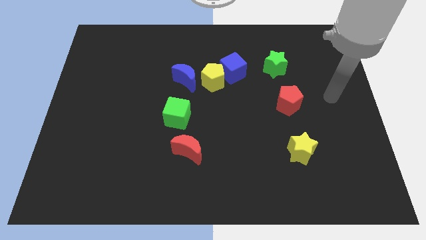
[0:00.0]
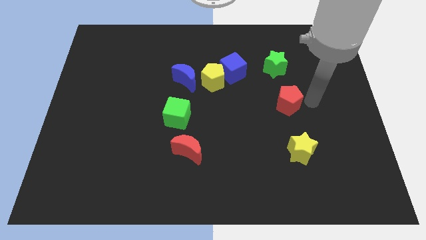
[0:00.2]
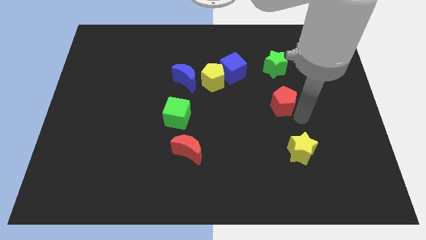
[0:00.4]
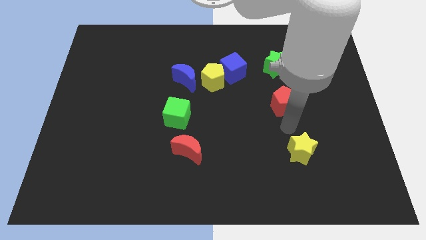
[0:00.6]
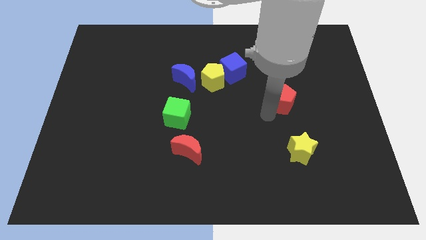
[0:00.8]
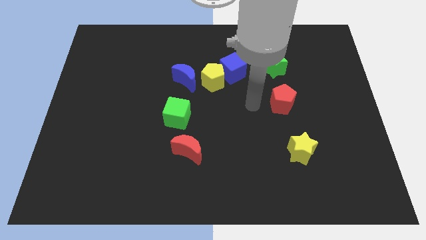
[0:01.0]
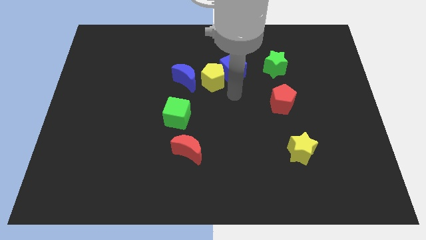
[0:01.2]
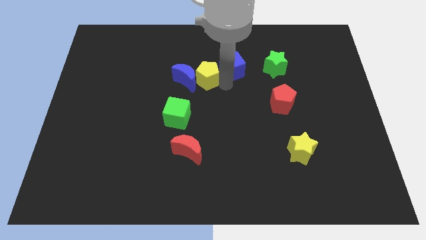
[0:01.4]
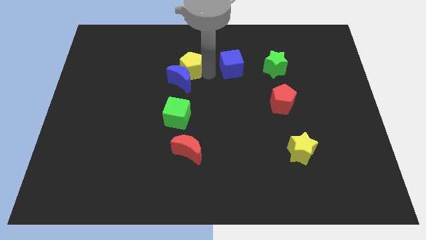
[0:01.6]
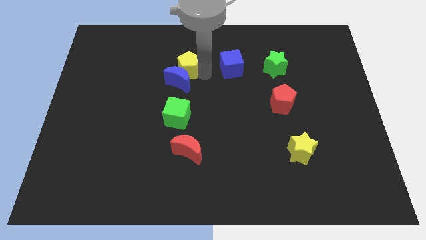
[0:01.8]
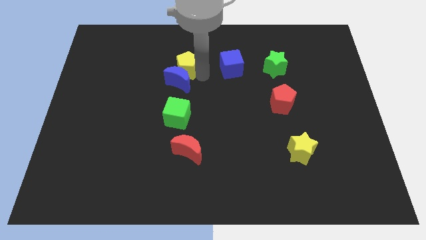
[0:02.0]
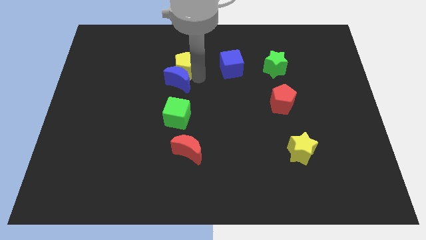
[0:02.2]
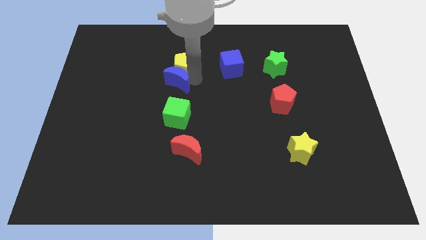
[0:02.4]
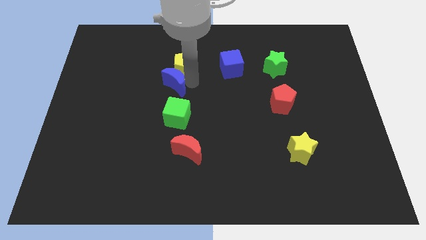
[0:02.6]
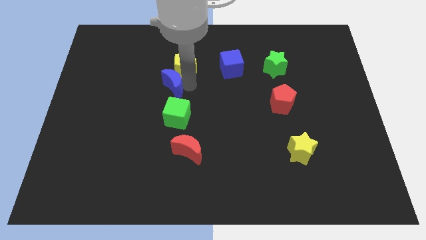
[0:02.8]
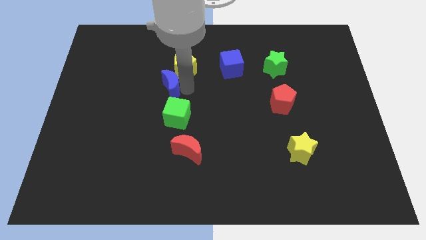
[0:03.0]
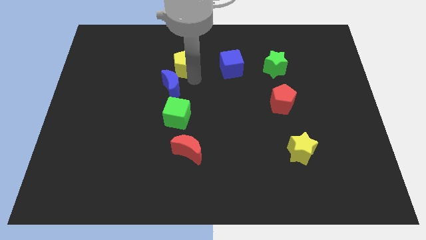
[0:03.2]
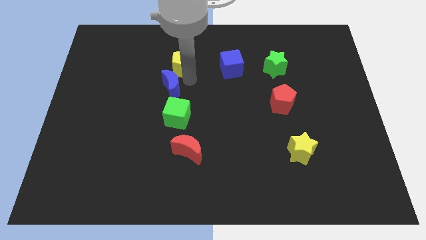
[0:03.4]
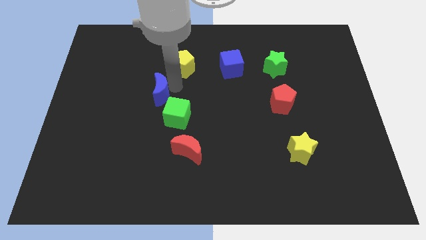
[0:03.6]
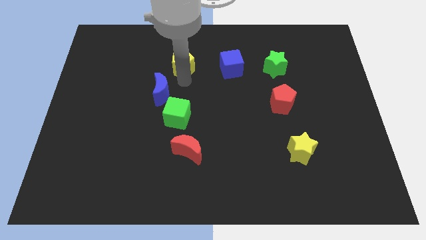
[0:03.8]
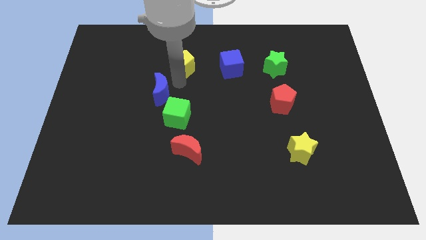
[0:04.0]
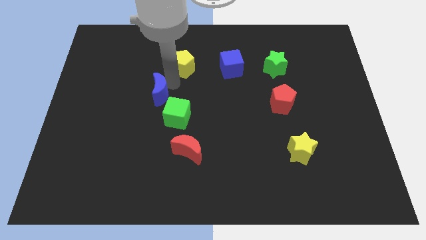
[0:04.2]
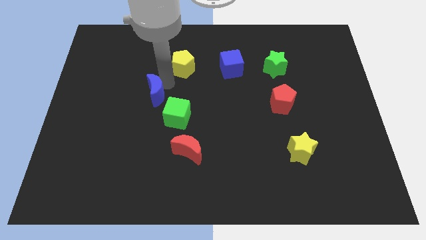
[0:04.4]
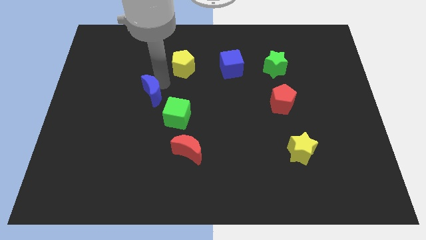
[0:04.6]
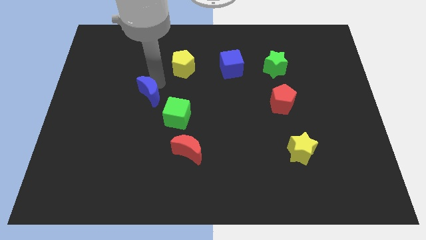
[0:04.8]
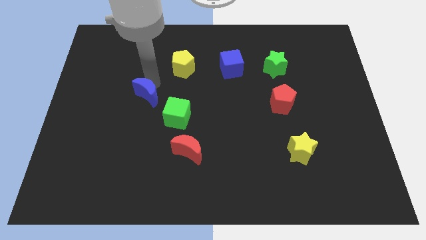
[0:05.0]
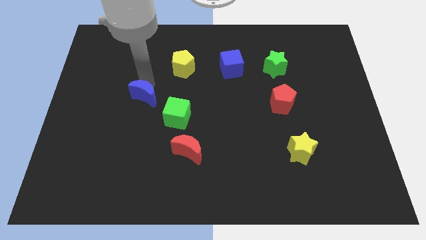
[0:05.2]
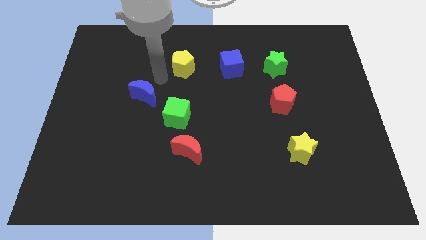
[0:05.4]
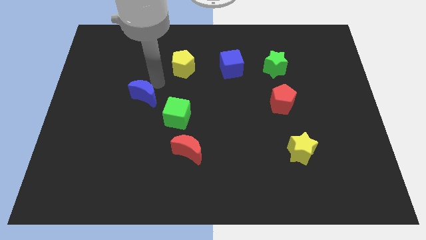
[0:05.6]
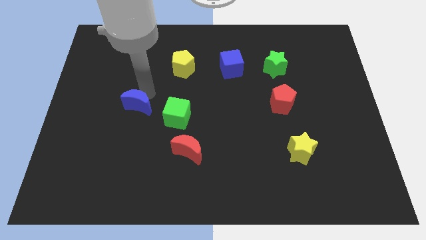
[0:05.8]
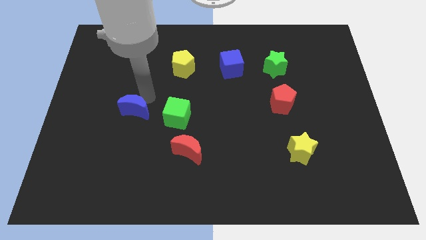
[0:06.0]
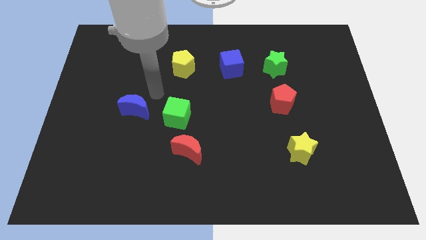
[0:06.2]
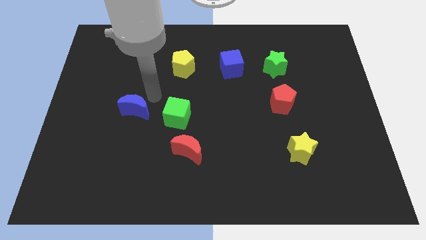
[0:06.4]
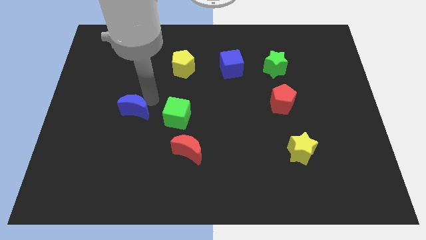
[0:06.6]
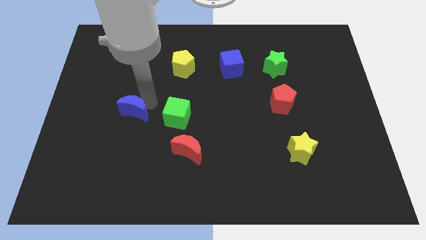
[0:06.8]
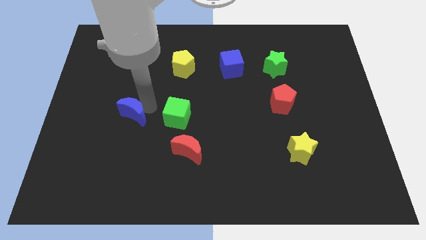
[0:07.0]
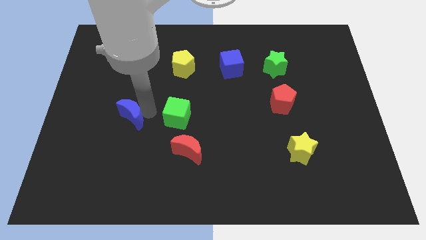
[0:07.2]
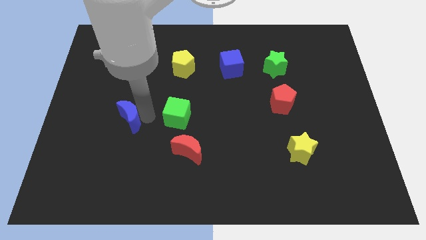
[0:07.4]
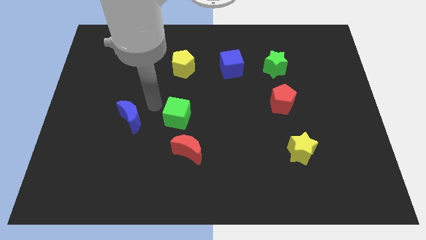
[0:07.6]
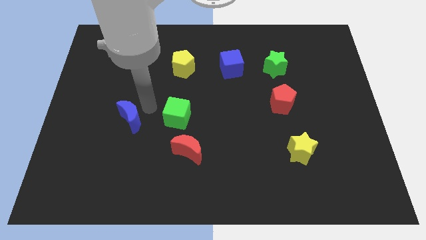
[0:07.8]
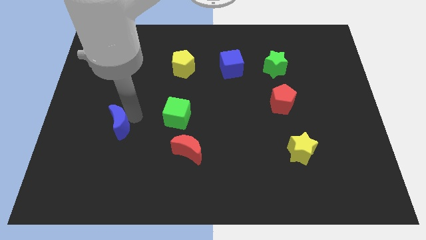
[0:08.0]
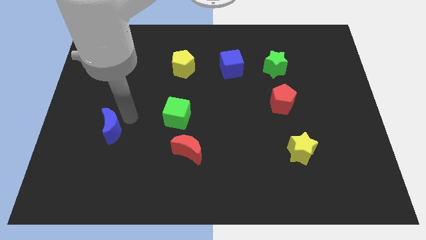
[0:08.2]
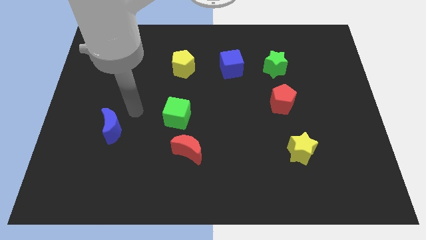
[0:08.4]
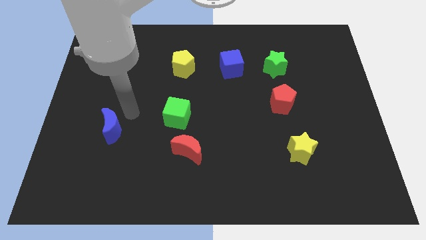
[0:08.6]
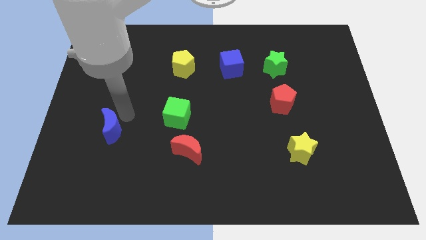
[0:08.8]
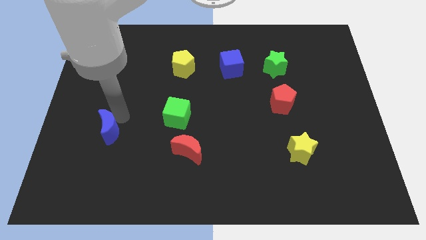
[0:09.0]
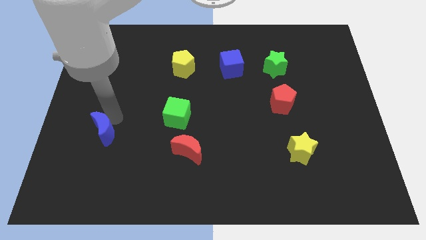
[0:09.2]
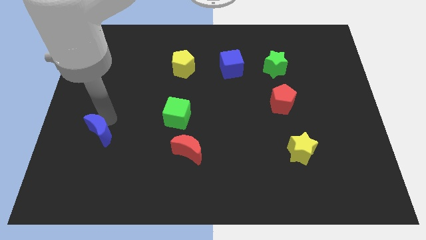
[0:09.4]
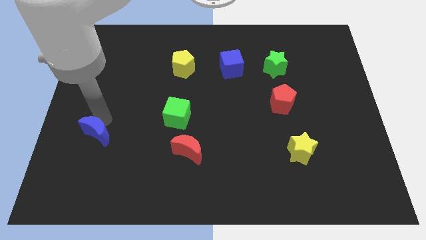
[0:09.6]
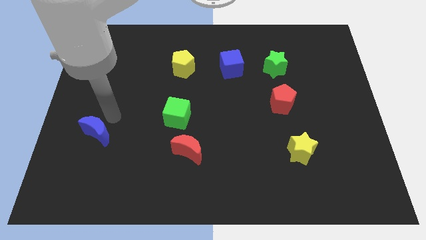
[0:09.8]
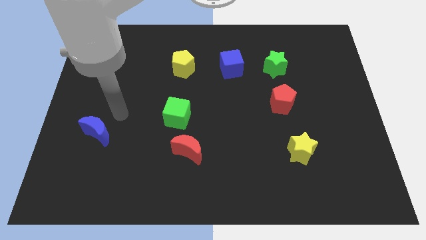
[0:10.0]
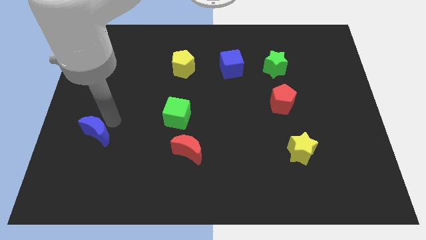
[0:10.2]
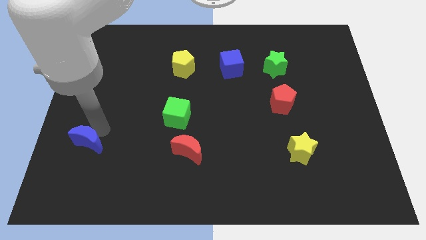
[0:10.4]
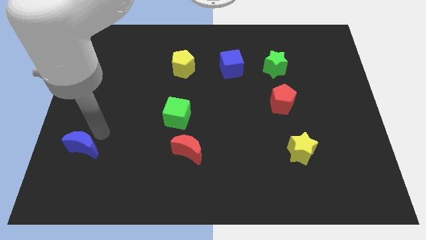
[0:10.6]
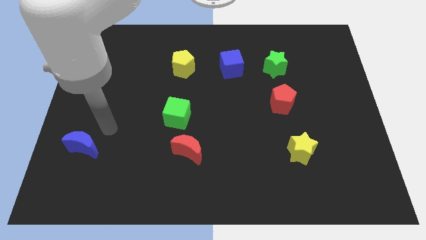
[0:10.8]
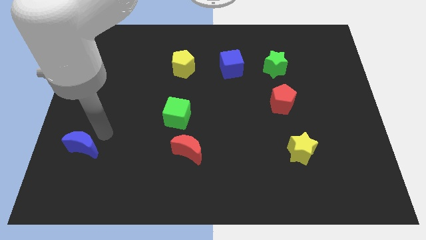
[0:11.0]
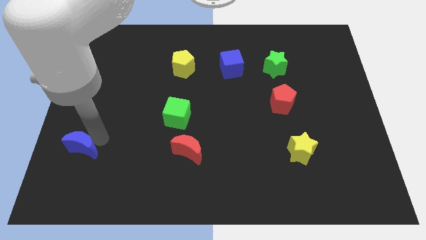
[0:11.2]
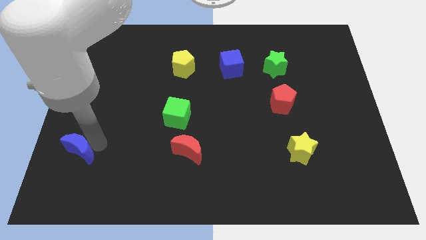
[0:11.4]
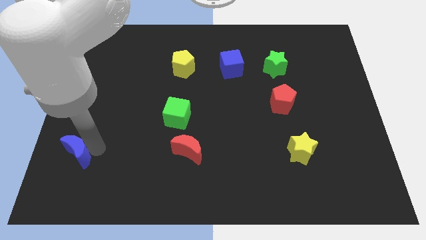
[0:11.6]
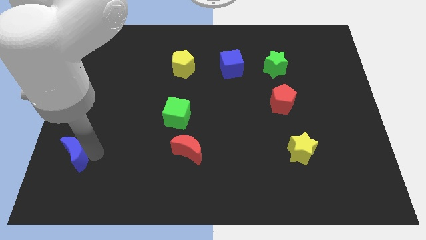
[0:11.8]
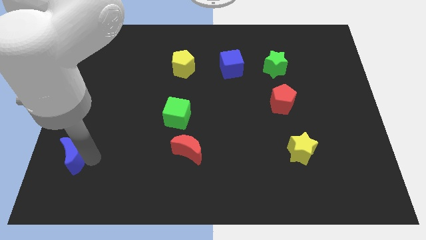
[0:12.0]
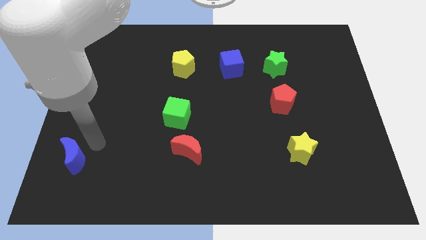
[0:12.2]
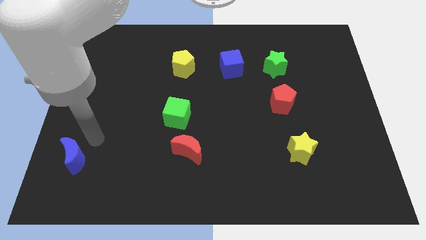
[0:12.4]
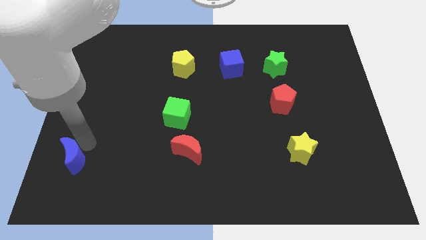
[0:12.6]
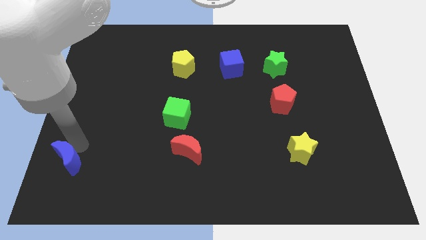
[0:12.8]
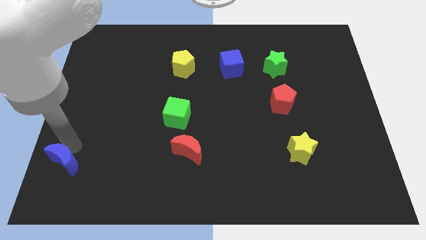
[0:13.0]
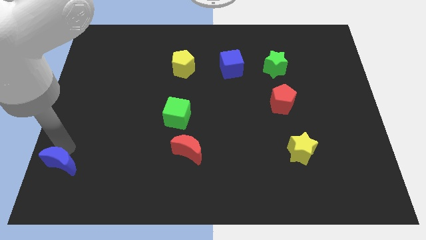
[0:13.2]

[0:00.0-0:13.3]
push the blue moon to the bottom left corner
